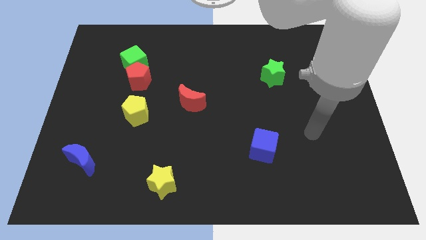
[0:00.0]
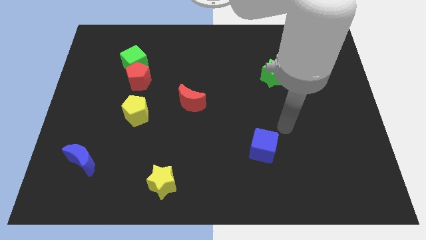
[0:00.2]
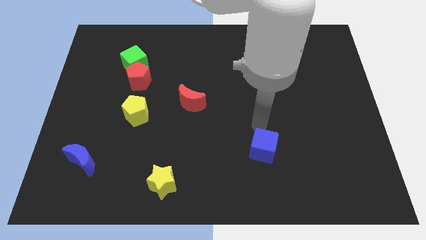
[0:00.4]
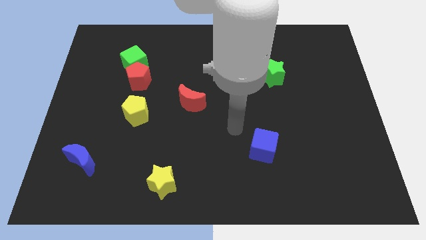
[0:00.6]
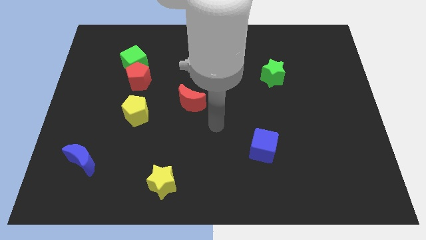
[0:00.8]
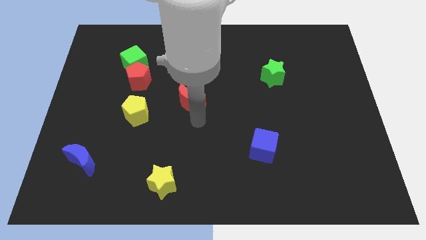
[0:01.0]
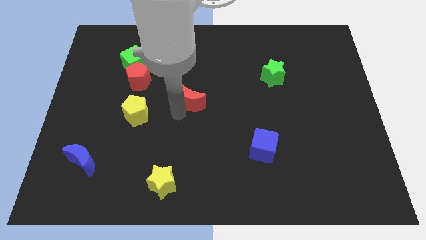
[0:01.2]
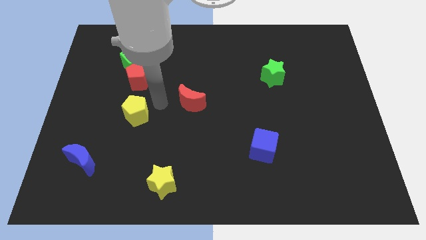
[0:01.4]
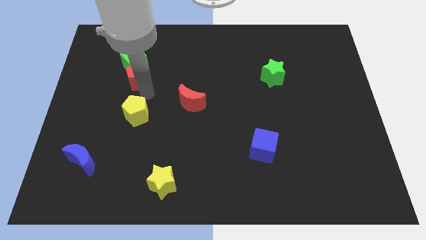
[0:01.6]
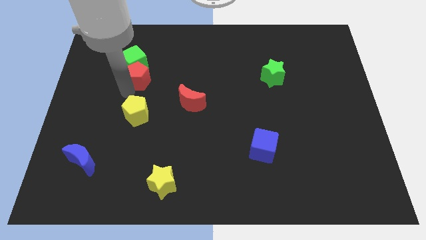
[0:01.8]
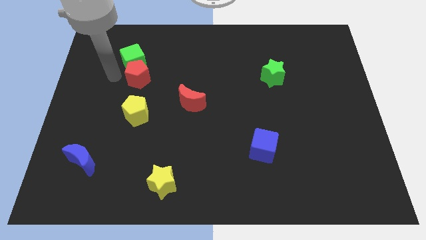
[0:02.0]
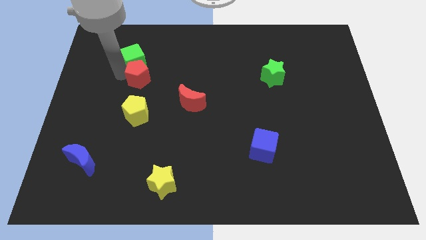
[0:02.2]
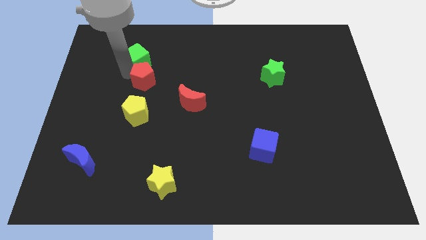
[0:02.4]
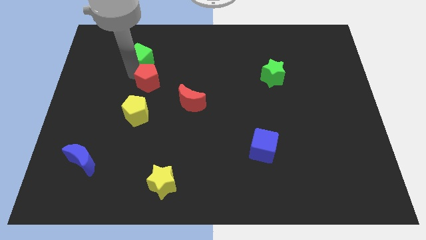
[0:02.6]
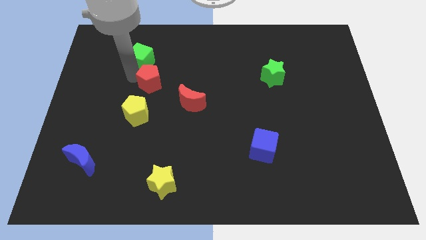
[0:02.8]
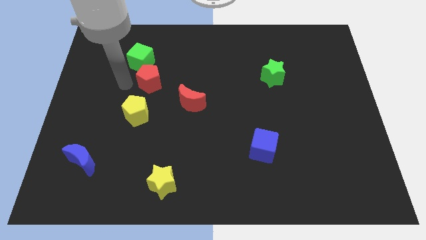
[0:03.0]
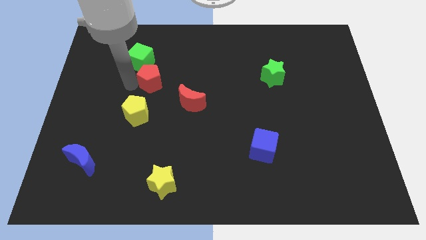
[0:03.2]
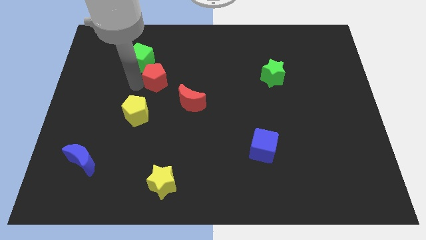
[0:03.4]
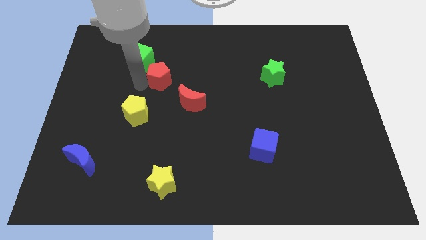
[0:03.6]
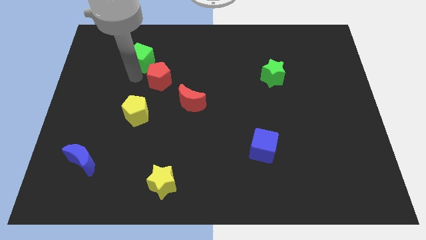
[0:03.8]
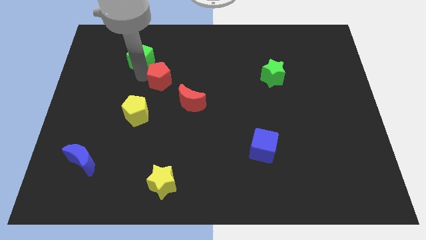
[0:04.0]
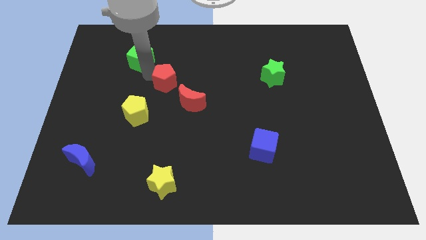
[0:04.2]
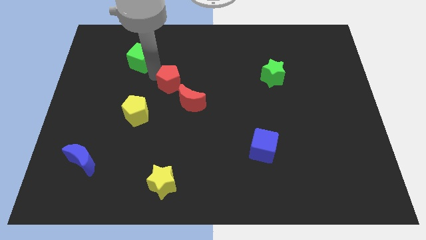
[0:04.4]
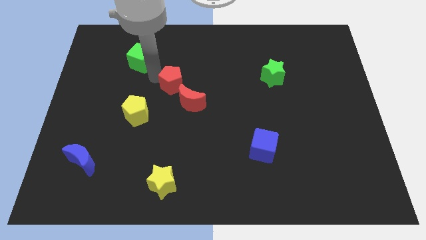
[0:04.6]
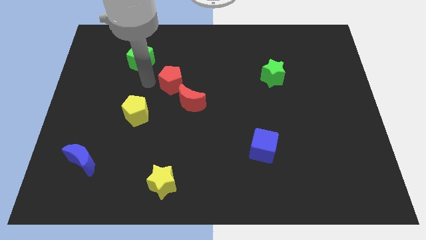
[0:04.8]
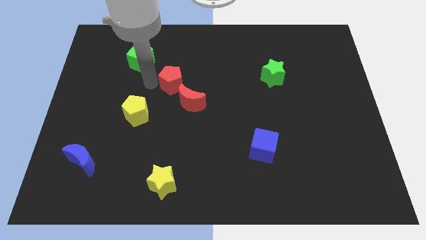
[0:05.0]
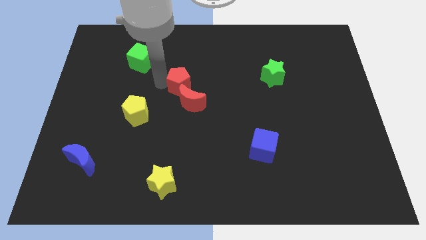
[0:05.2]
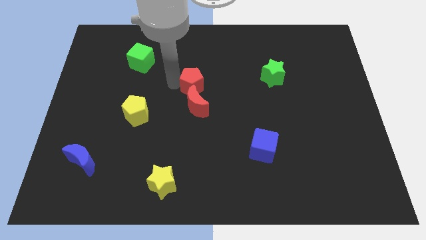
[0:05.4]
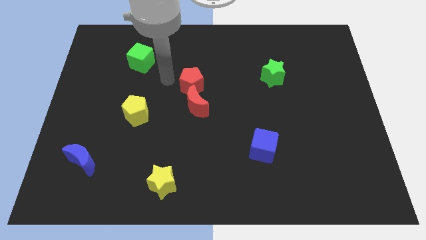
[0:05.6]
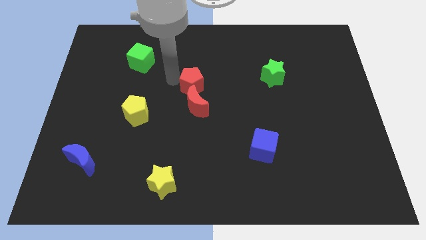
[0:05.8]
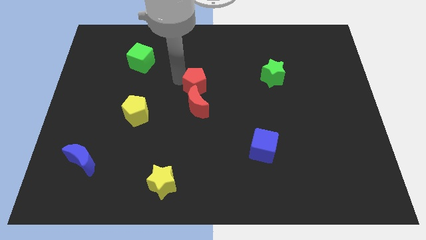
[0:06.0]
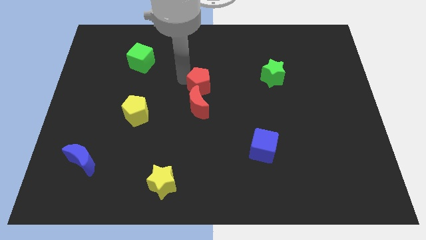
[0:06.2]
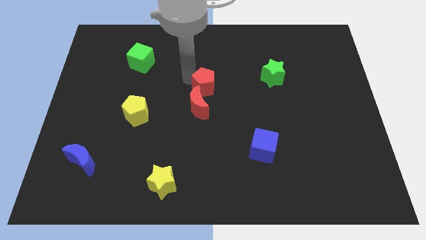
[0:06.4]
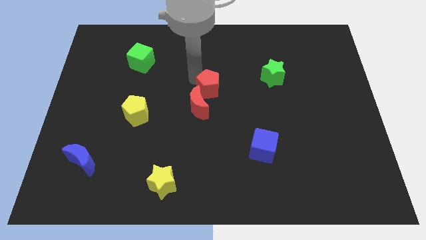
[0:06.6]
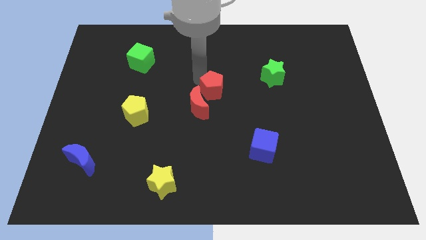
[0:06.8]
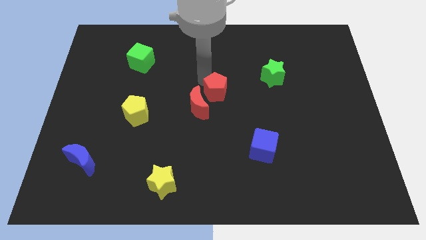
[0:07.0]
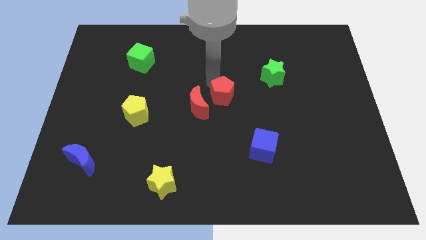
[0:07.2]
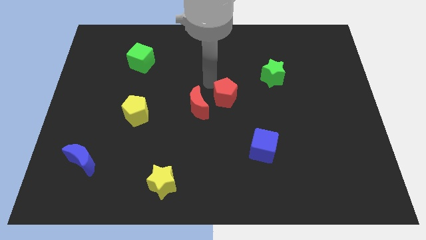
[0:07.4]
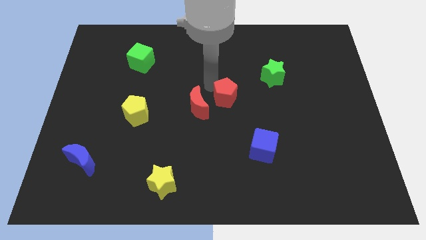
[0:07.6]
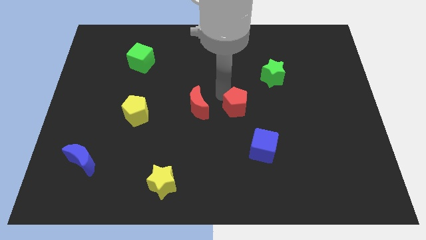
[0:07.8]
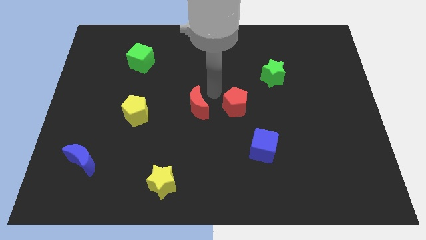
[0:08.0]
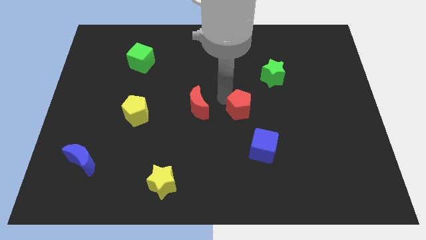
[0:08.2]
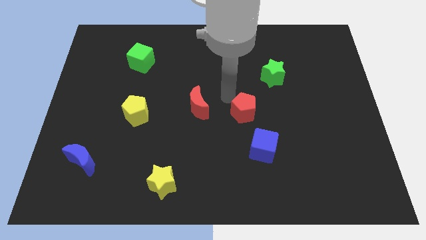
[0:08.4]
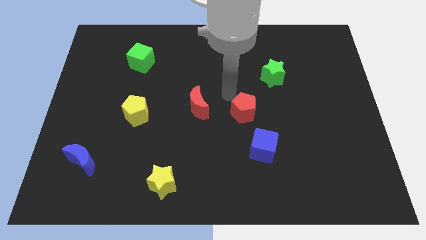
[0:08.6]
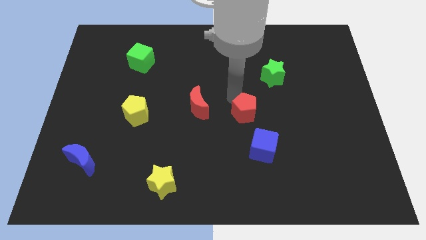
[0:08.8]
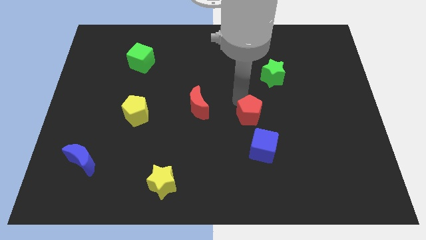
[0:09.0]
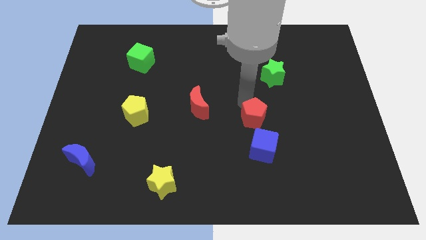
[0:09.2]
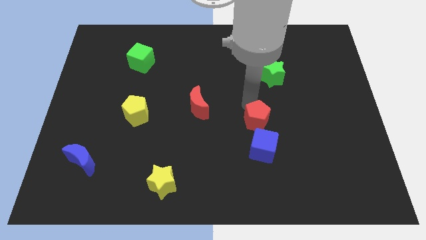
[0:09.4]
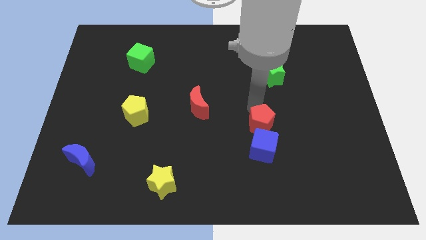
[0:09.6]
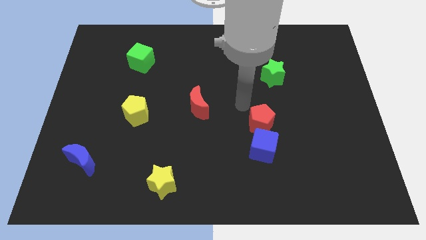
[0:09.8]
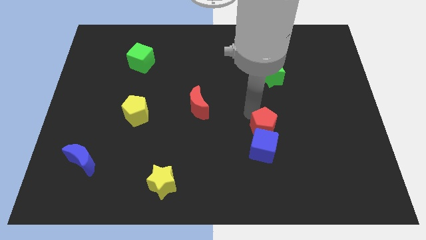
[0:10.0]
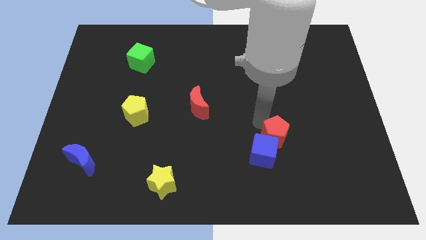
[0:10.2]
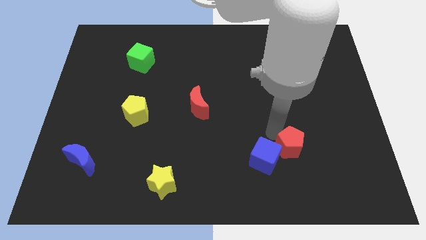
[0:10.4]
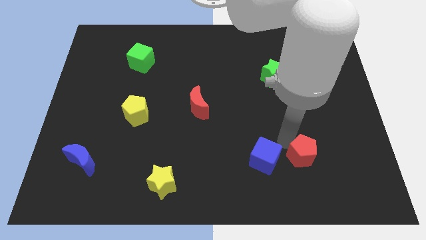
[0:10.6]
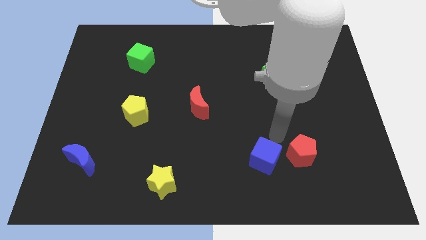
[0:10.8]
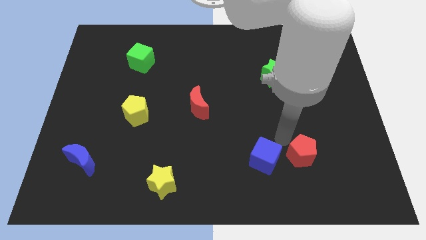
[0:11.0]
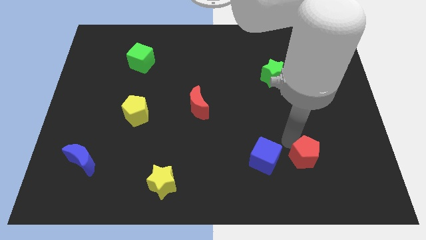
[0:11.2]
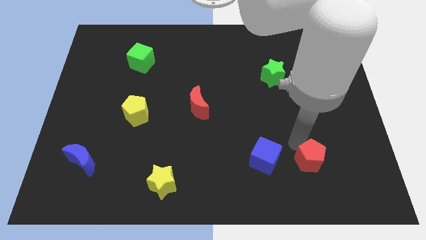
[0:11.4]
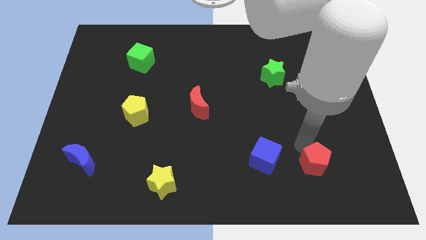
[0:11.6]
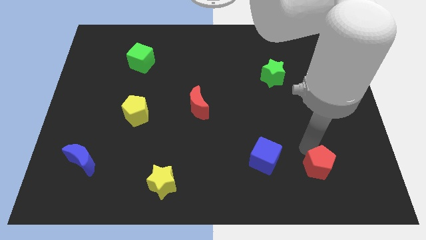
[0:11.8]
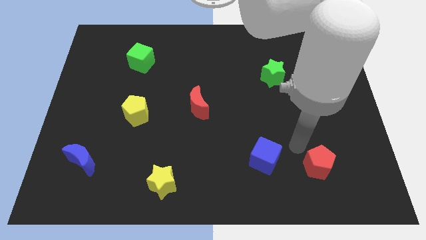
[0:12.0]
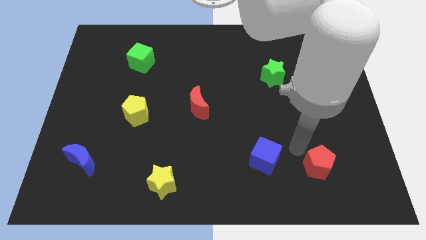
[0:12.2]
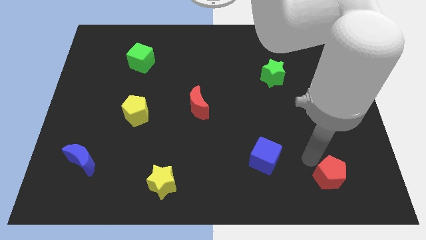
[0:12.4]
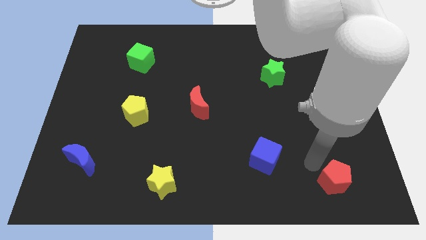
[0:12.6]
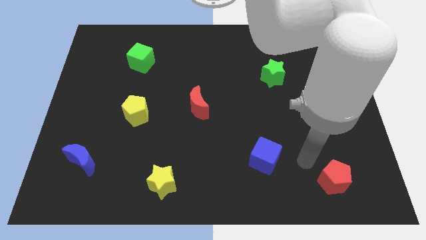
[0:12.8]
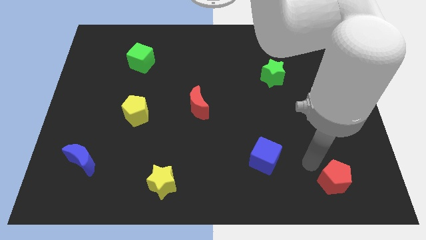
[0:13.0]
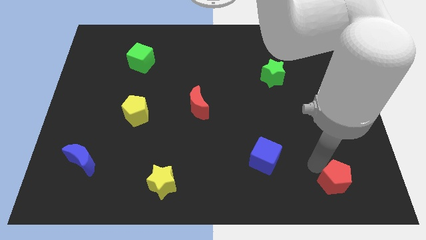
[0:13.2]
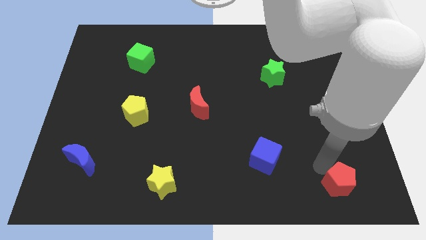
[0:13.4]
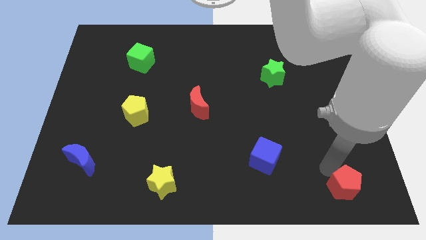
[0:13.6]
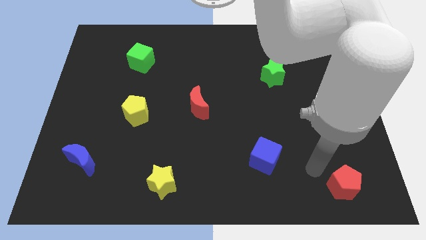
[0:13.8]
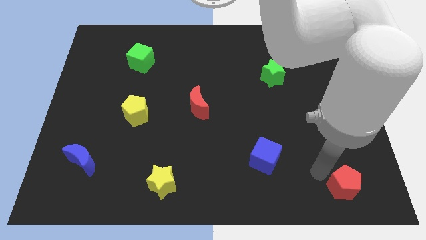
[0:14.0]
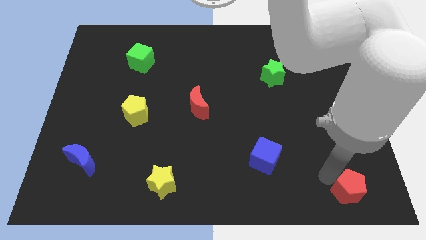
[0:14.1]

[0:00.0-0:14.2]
move the red pentagon to the bottom right corner
